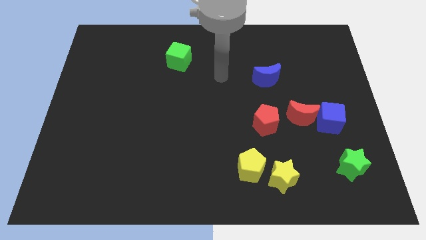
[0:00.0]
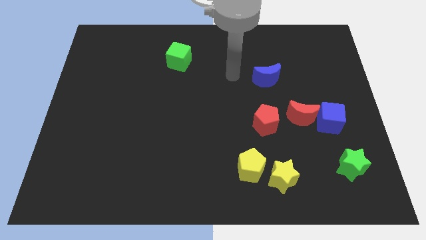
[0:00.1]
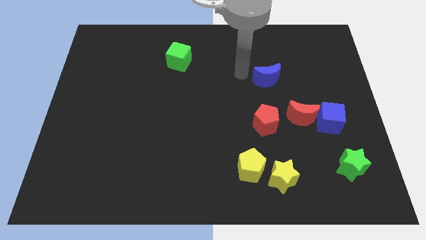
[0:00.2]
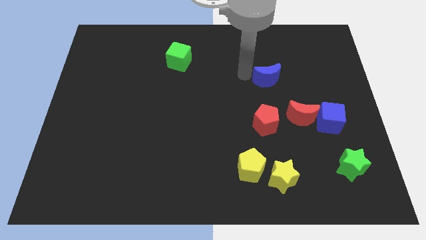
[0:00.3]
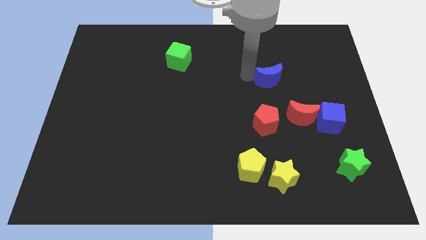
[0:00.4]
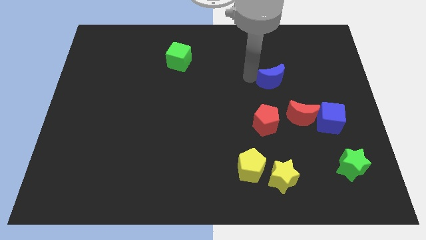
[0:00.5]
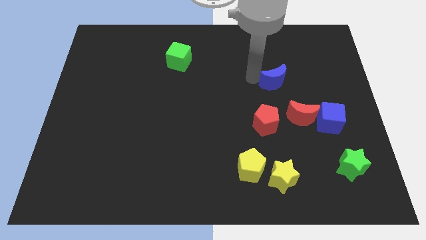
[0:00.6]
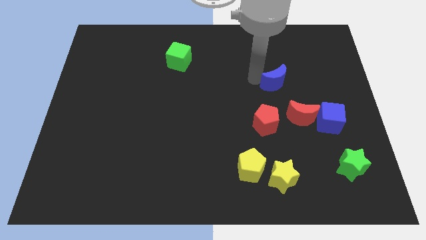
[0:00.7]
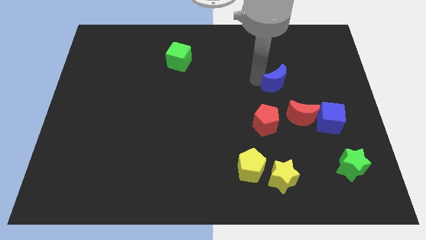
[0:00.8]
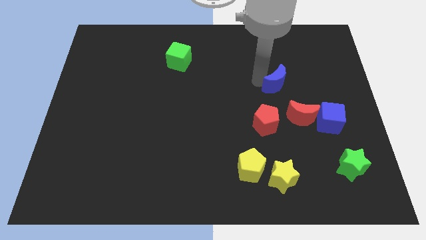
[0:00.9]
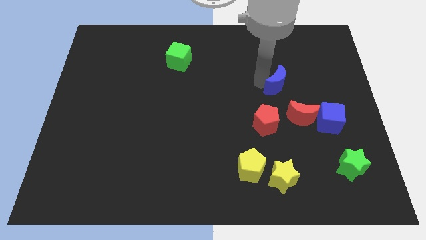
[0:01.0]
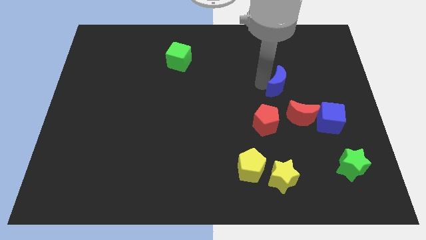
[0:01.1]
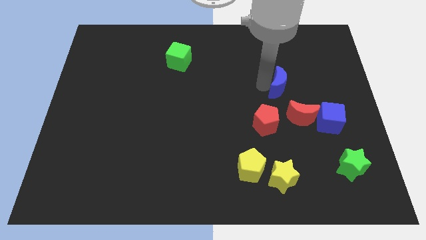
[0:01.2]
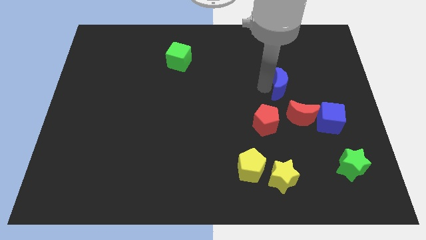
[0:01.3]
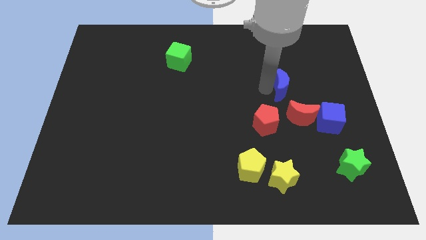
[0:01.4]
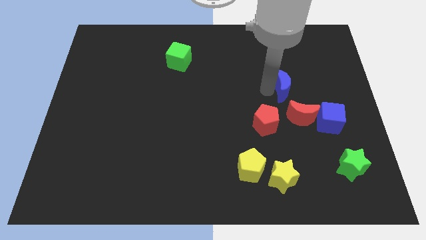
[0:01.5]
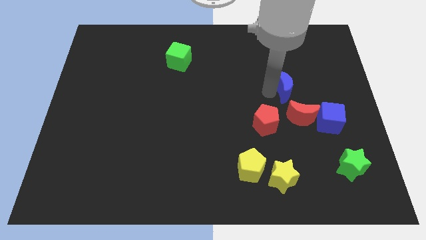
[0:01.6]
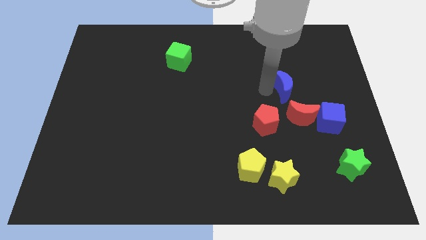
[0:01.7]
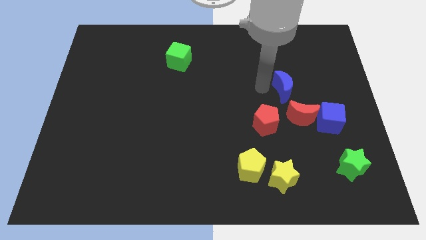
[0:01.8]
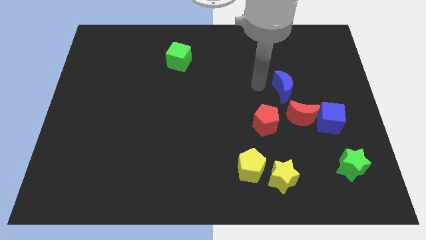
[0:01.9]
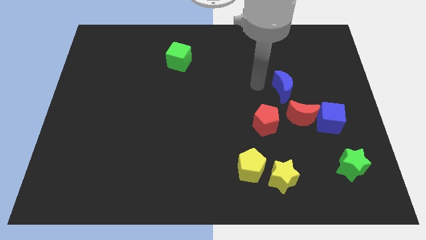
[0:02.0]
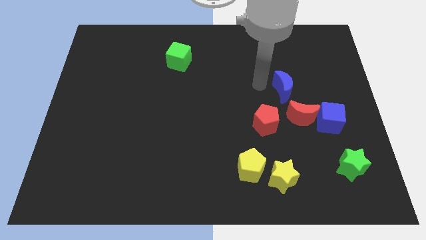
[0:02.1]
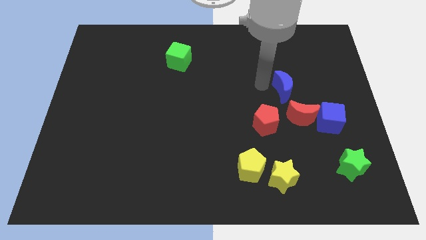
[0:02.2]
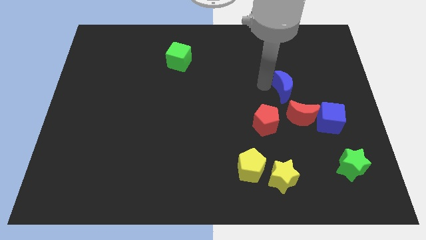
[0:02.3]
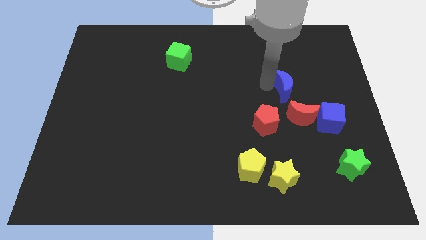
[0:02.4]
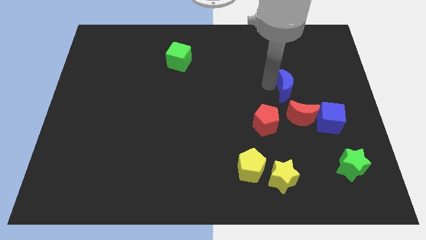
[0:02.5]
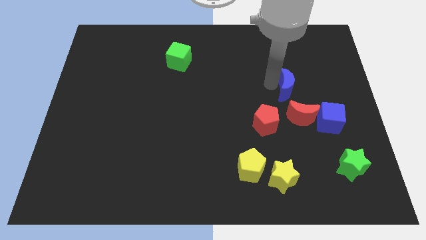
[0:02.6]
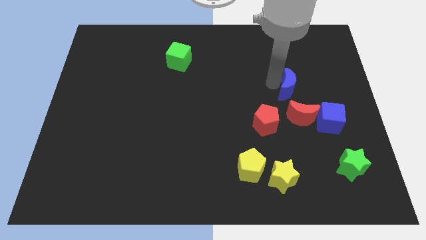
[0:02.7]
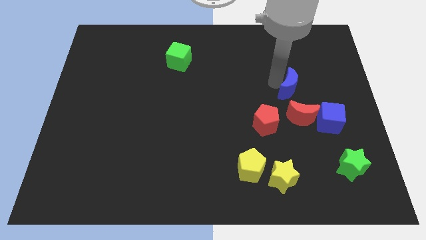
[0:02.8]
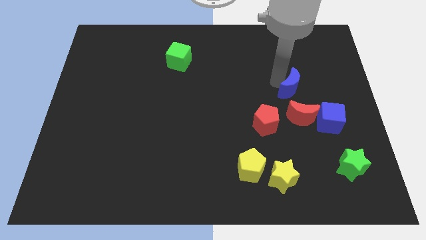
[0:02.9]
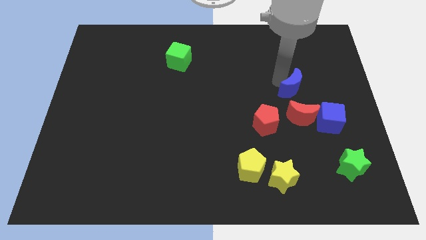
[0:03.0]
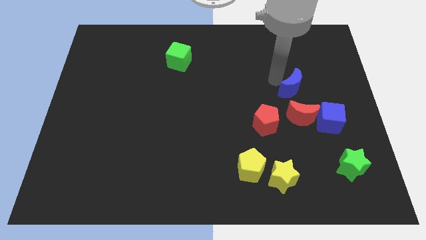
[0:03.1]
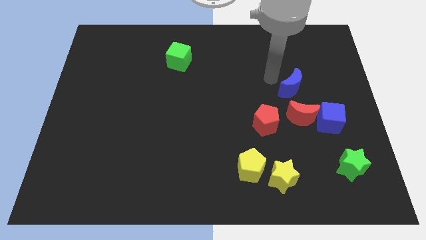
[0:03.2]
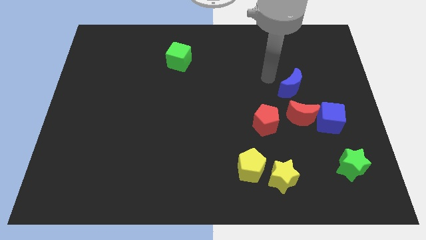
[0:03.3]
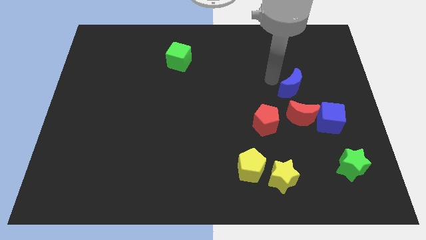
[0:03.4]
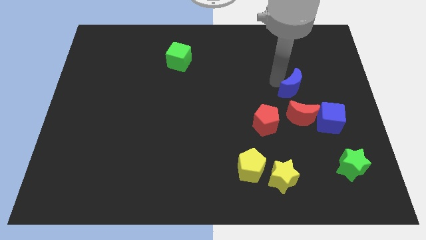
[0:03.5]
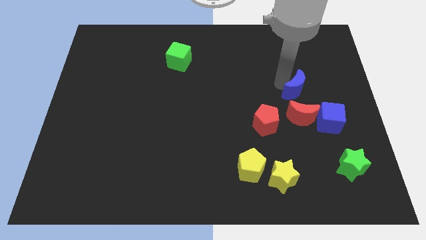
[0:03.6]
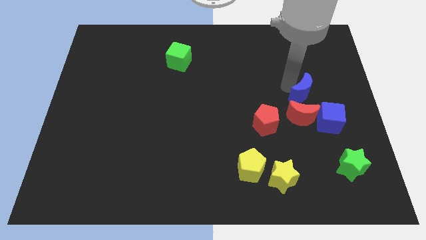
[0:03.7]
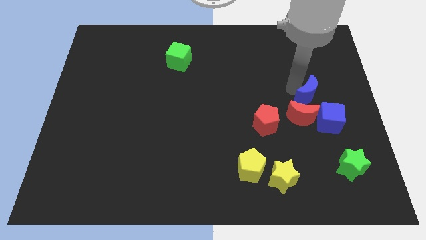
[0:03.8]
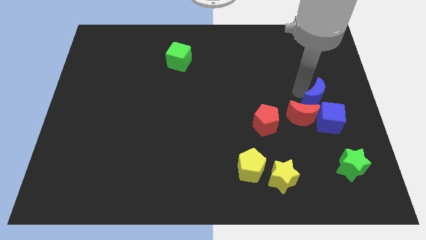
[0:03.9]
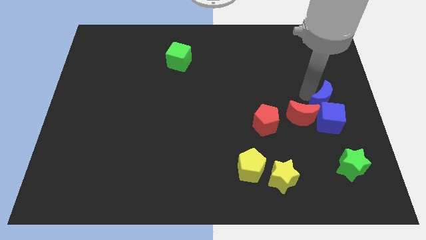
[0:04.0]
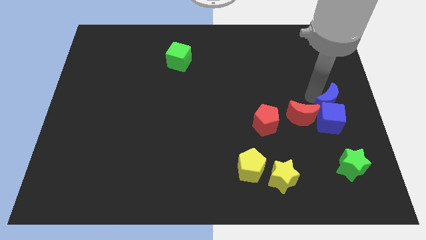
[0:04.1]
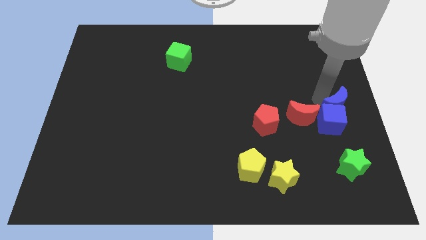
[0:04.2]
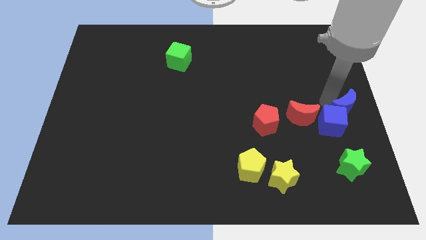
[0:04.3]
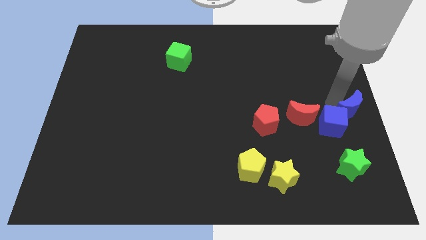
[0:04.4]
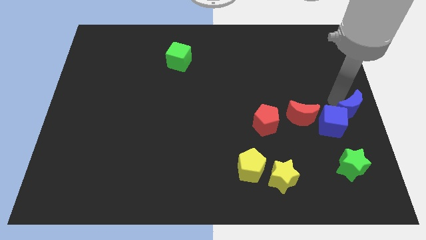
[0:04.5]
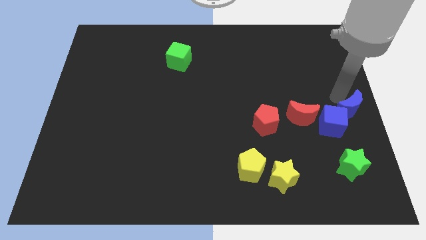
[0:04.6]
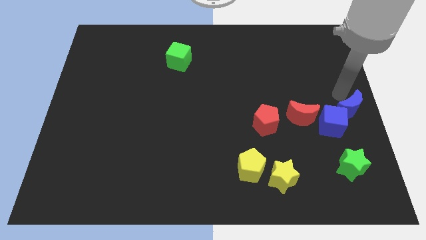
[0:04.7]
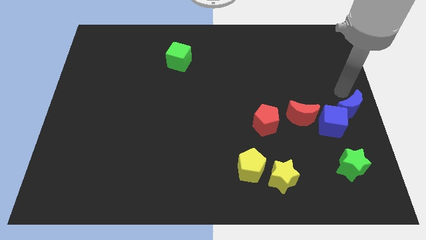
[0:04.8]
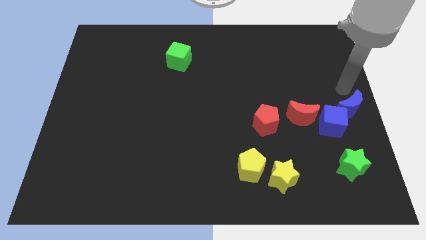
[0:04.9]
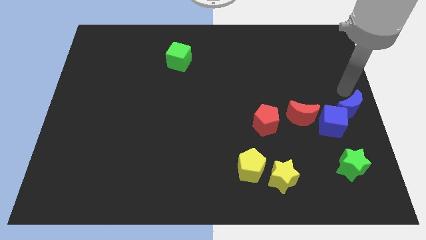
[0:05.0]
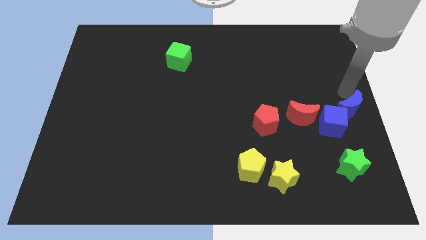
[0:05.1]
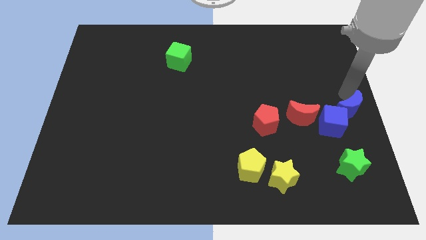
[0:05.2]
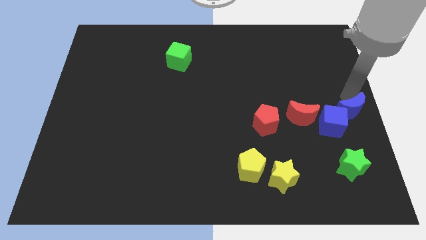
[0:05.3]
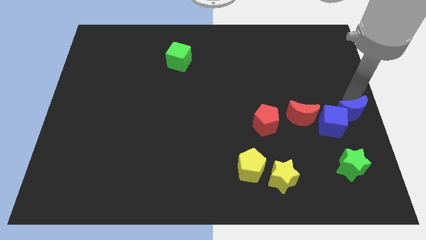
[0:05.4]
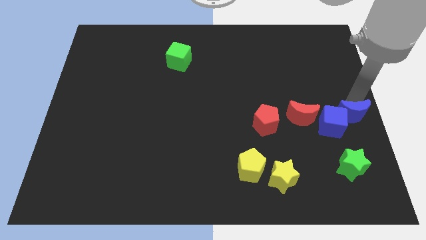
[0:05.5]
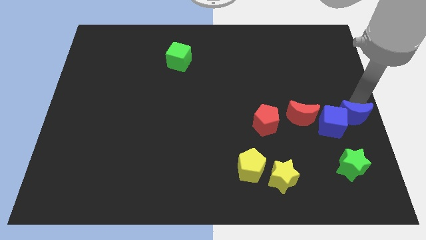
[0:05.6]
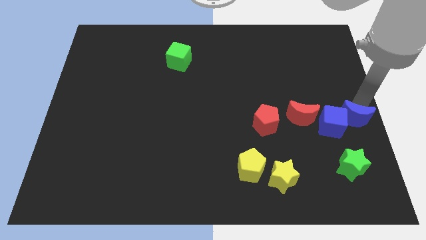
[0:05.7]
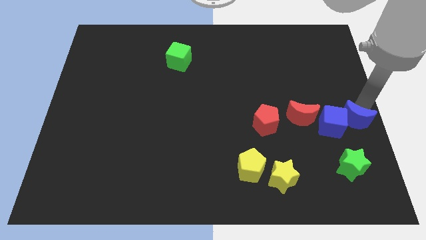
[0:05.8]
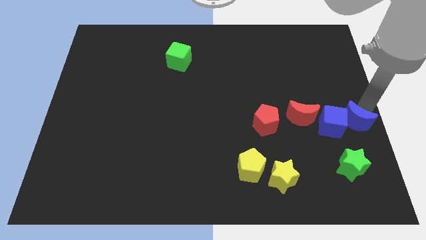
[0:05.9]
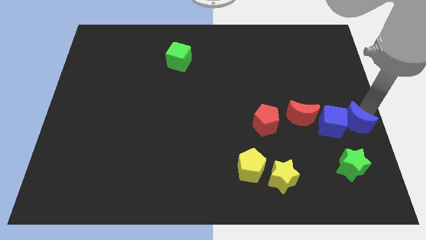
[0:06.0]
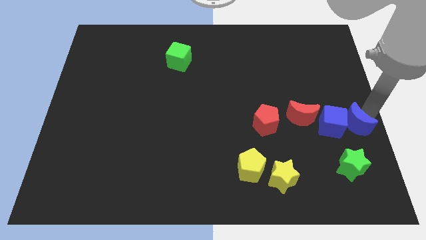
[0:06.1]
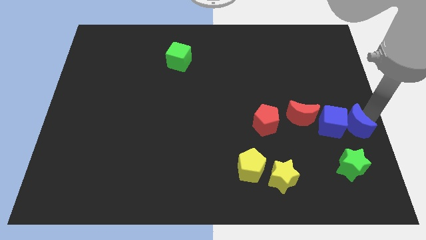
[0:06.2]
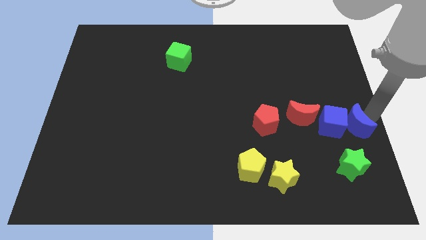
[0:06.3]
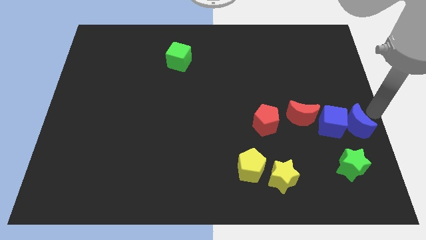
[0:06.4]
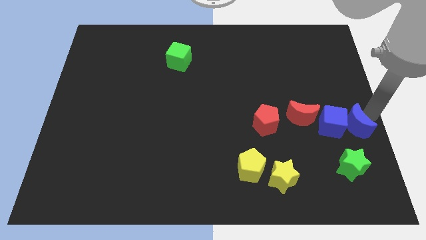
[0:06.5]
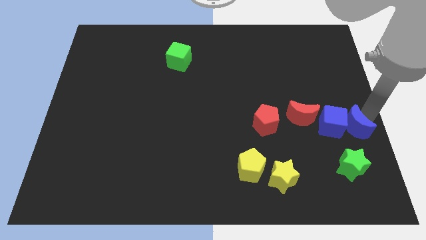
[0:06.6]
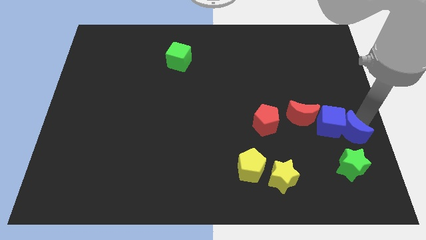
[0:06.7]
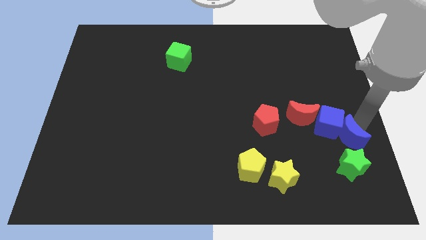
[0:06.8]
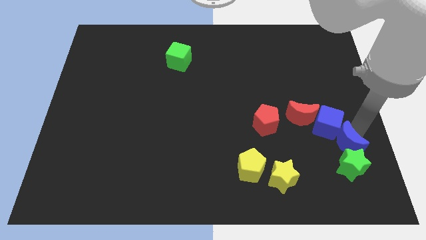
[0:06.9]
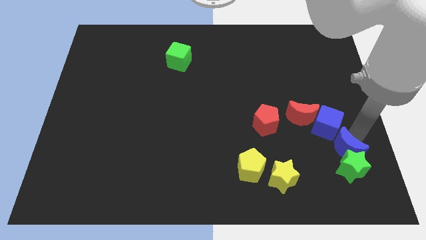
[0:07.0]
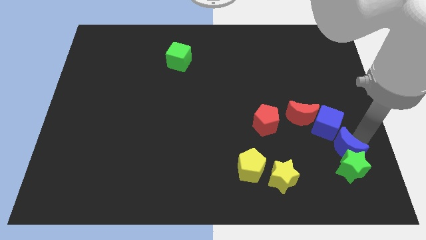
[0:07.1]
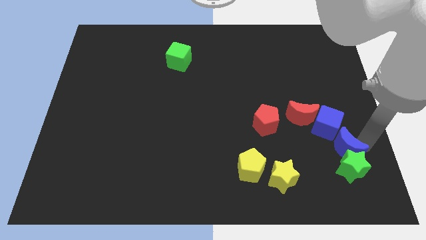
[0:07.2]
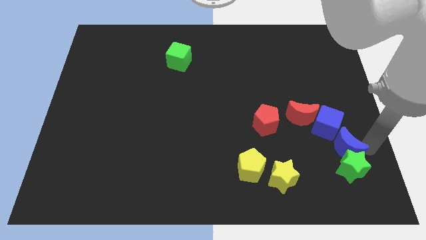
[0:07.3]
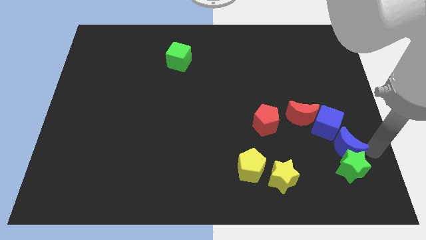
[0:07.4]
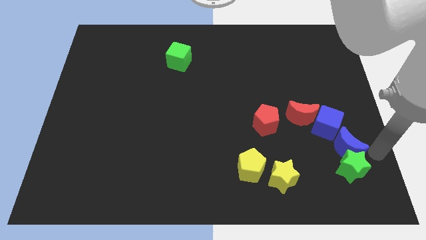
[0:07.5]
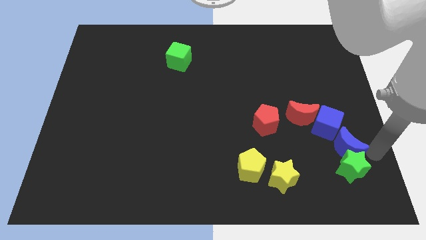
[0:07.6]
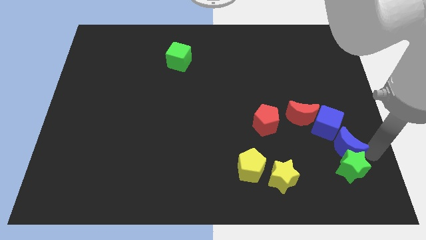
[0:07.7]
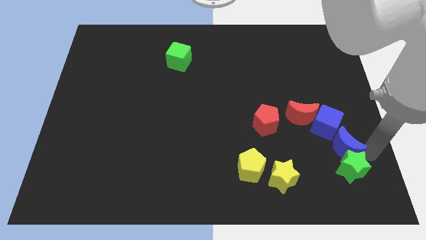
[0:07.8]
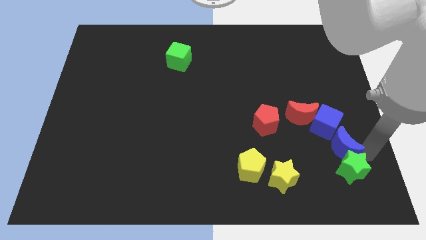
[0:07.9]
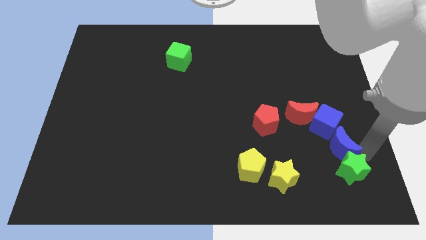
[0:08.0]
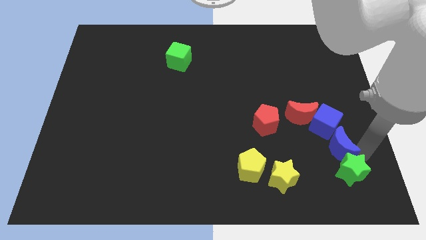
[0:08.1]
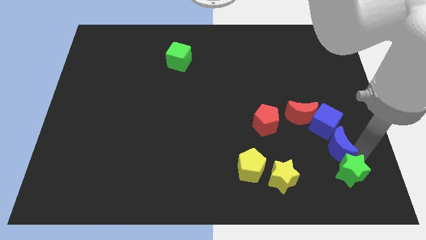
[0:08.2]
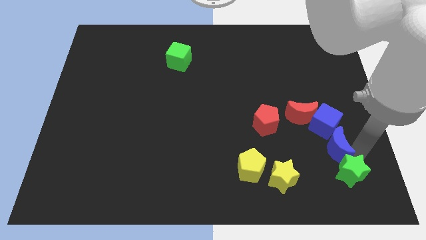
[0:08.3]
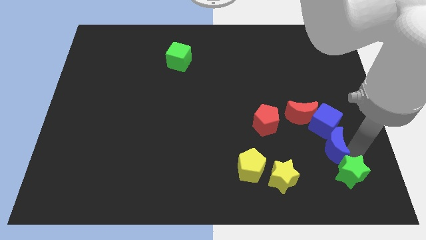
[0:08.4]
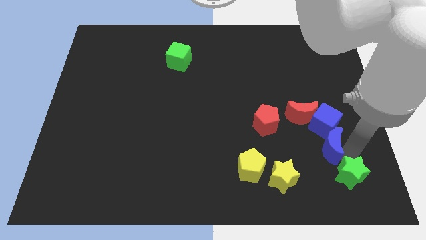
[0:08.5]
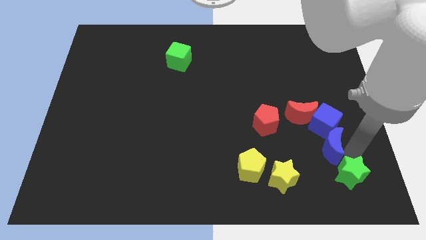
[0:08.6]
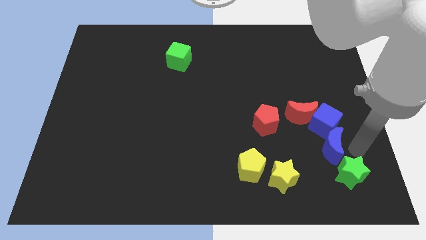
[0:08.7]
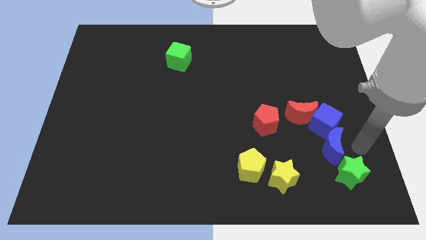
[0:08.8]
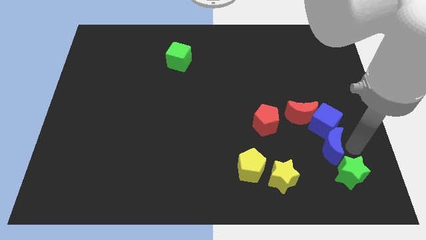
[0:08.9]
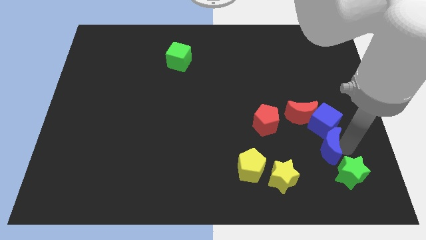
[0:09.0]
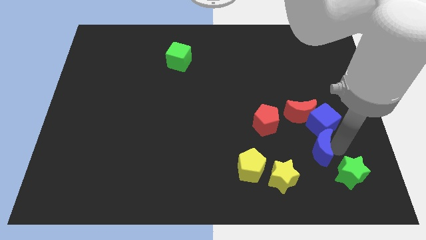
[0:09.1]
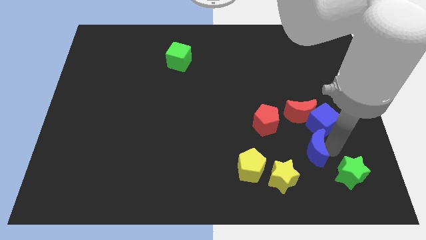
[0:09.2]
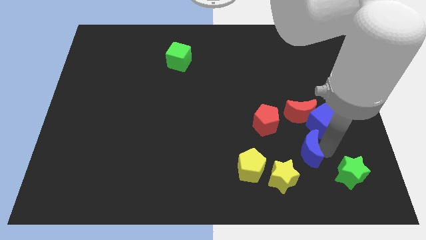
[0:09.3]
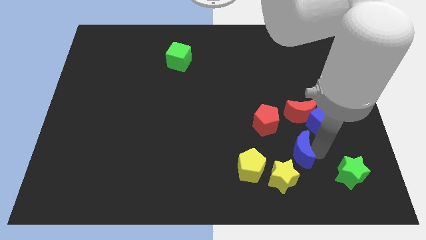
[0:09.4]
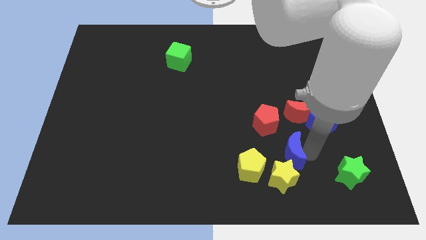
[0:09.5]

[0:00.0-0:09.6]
put the blue moon to the top right side of the yellow pentagon
